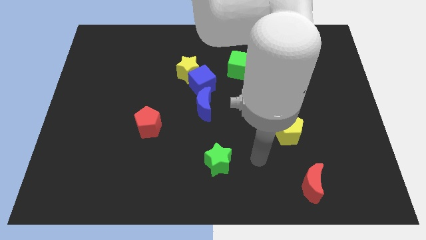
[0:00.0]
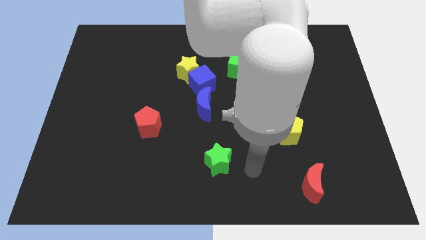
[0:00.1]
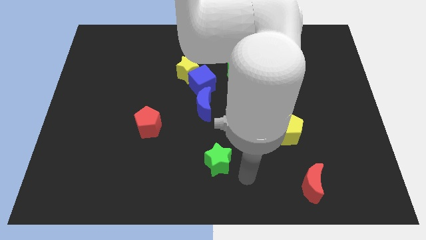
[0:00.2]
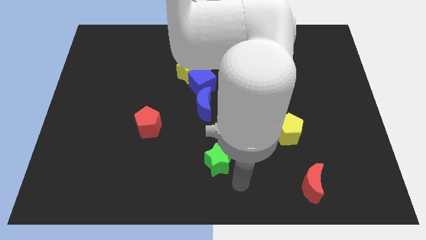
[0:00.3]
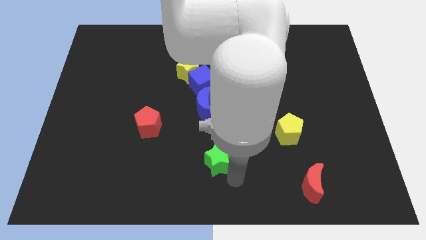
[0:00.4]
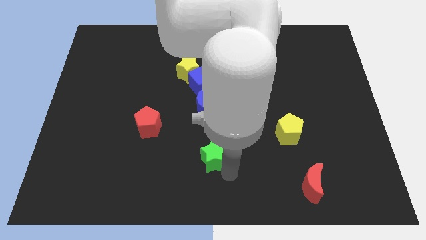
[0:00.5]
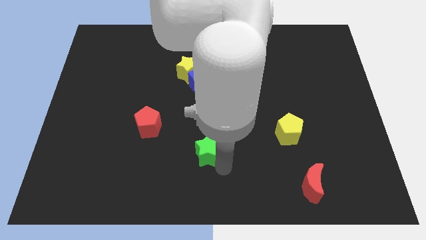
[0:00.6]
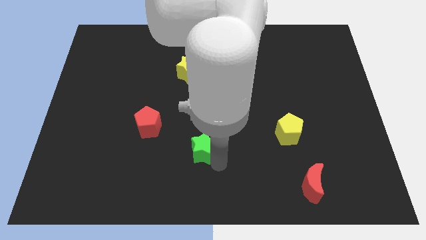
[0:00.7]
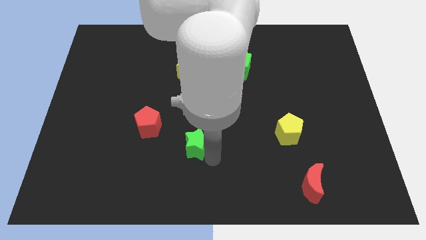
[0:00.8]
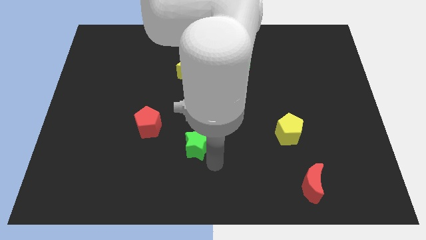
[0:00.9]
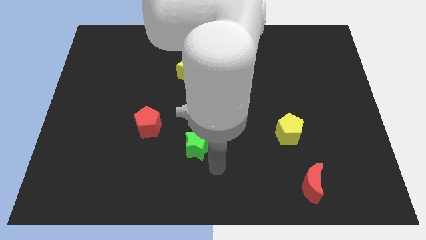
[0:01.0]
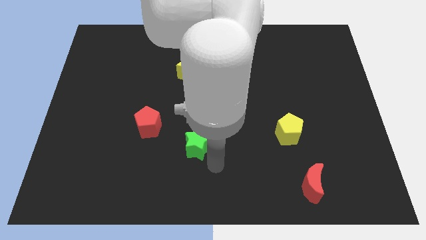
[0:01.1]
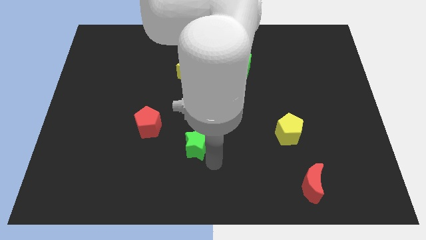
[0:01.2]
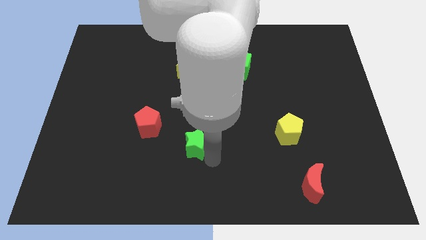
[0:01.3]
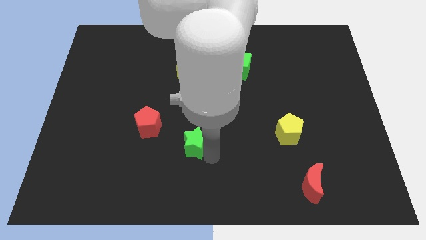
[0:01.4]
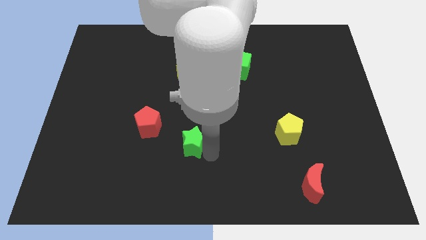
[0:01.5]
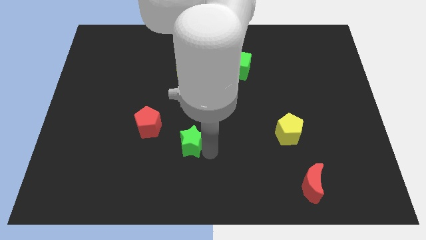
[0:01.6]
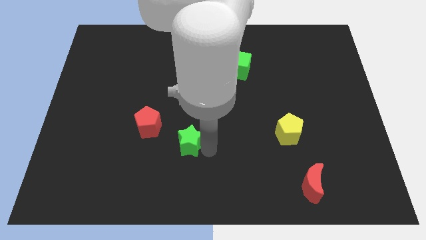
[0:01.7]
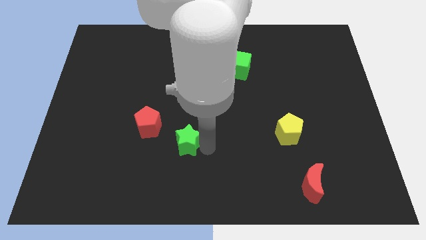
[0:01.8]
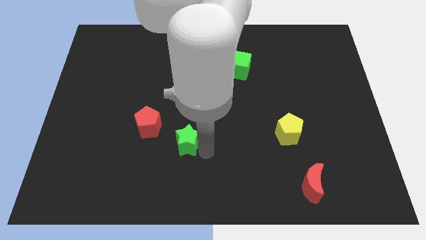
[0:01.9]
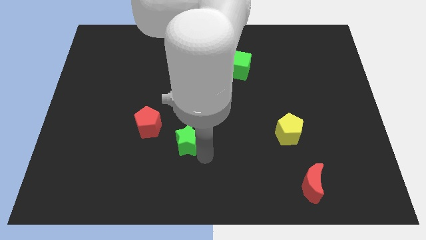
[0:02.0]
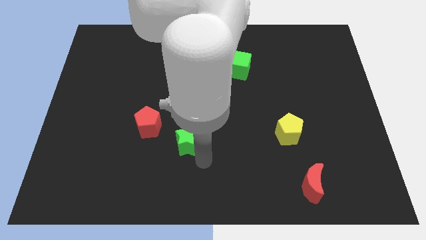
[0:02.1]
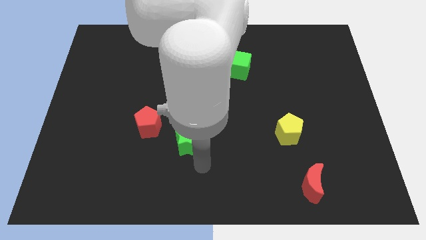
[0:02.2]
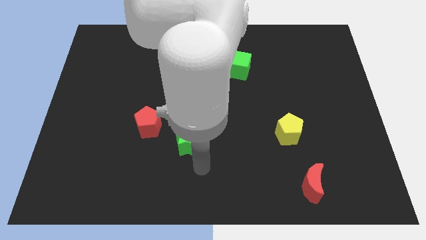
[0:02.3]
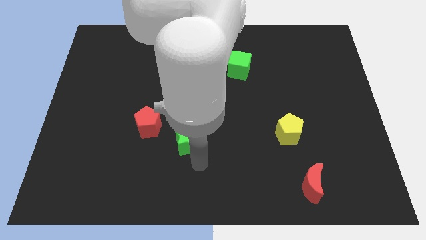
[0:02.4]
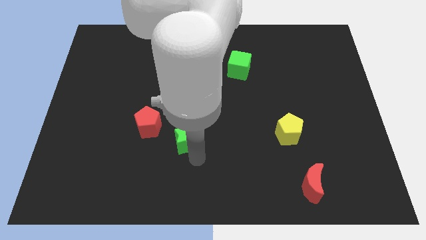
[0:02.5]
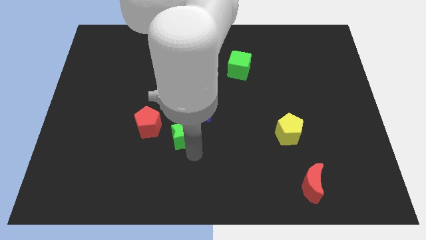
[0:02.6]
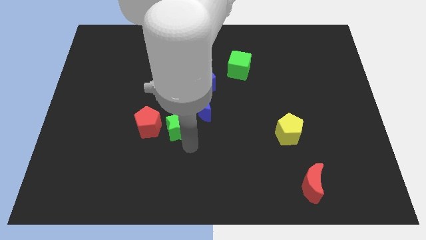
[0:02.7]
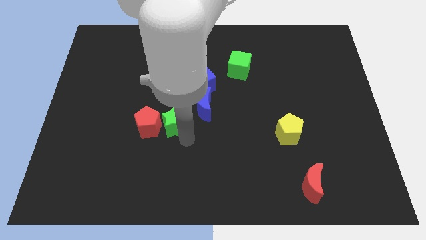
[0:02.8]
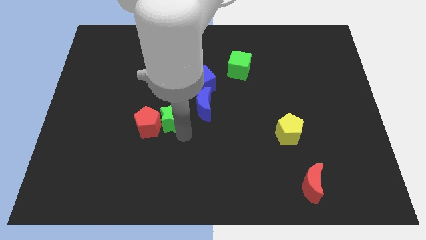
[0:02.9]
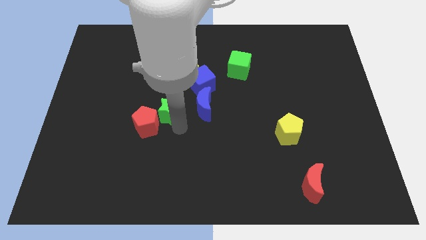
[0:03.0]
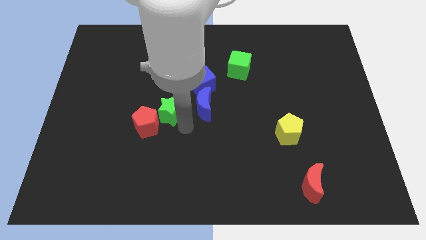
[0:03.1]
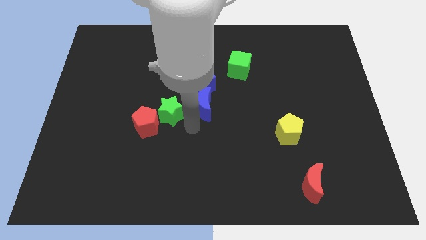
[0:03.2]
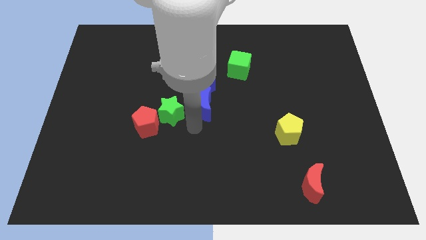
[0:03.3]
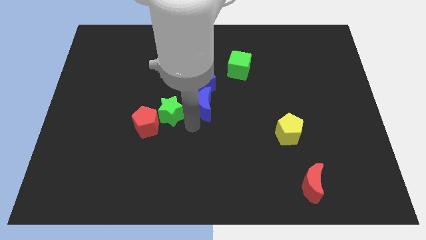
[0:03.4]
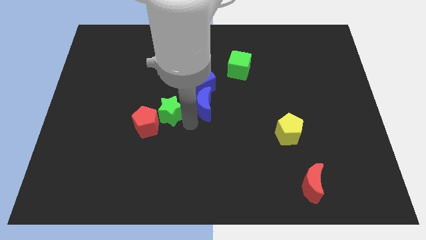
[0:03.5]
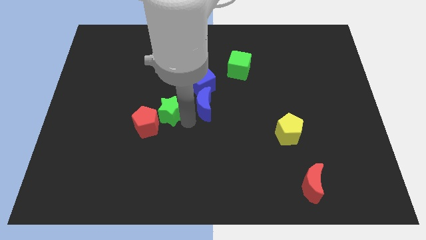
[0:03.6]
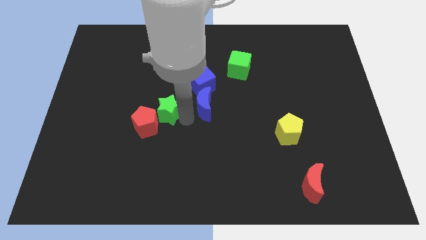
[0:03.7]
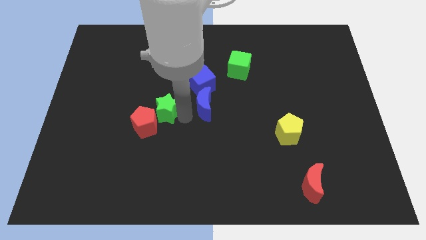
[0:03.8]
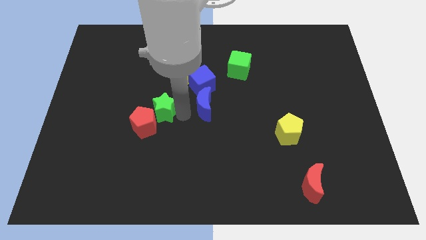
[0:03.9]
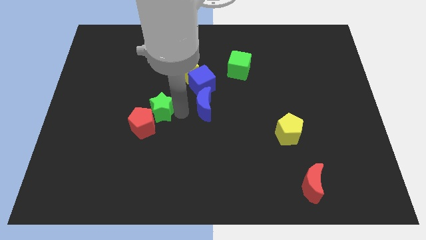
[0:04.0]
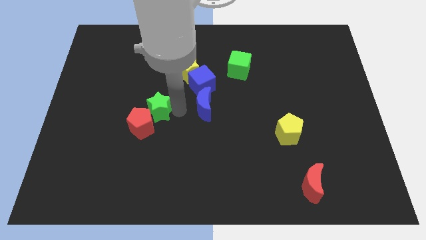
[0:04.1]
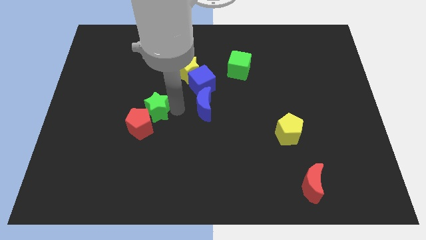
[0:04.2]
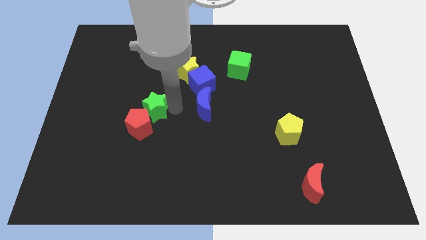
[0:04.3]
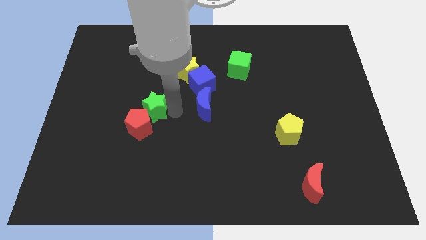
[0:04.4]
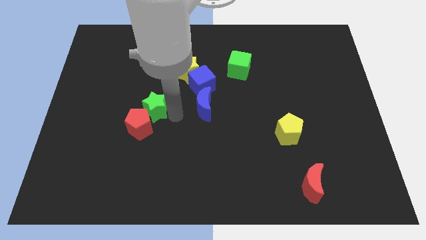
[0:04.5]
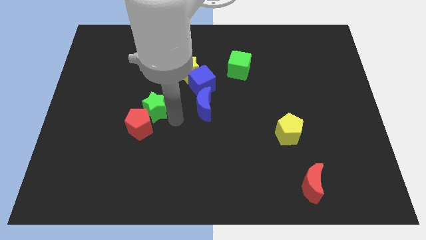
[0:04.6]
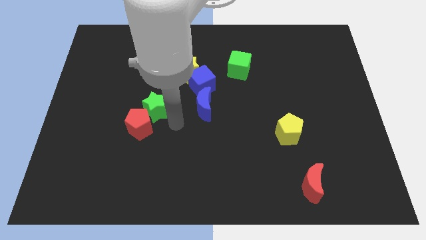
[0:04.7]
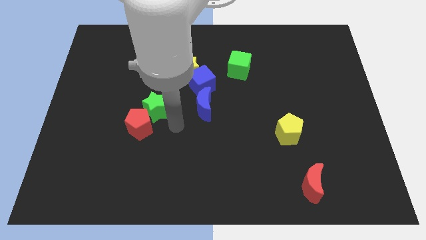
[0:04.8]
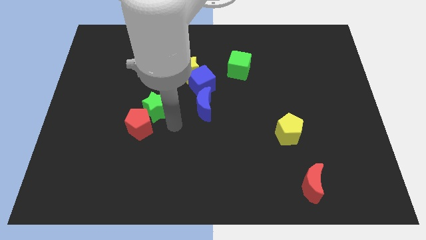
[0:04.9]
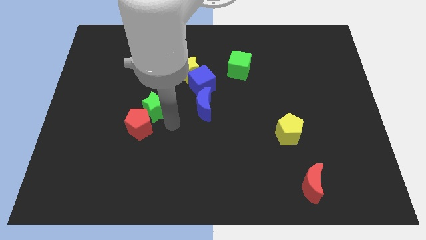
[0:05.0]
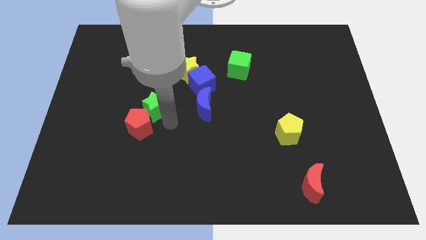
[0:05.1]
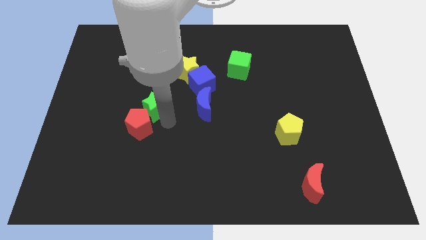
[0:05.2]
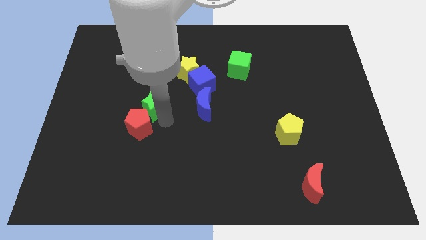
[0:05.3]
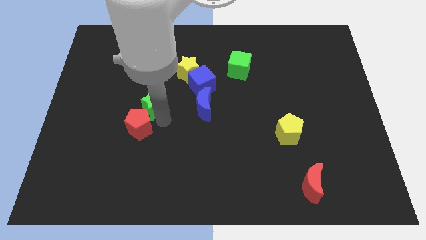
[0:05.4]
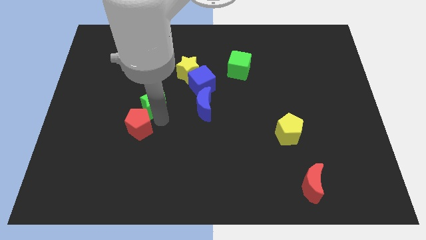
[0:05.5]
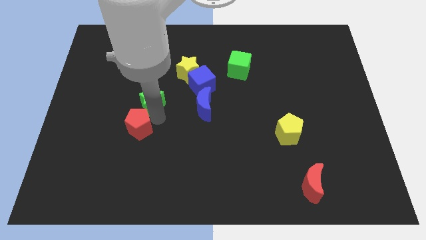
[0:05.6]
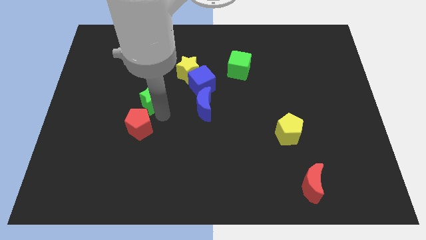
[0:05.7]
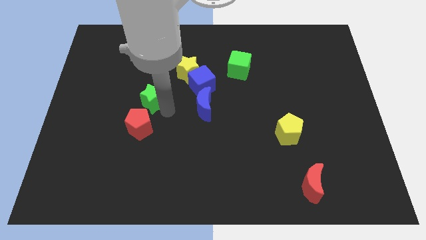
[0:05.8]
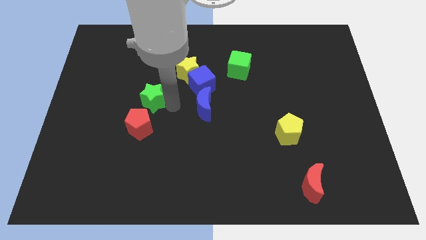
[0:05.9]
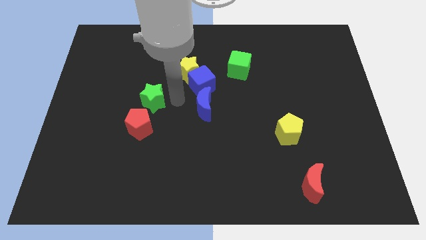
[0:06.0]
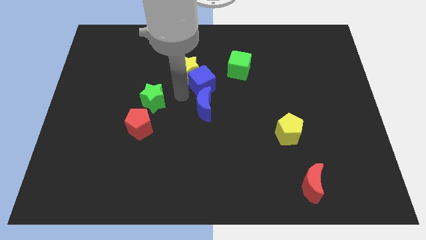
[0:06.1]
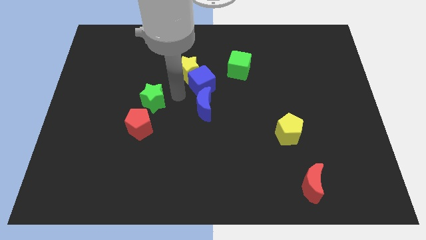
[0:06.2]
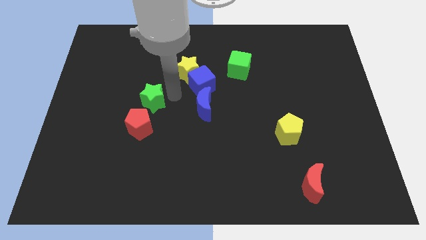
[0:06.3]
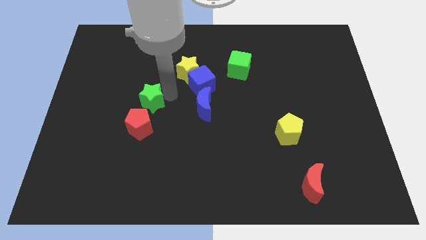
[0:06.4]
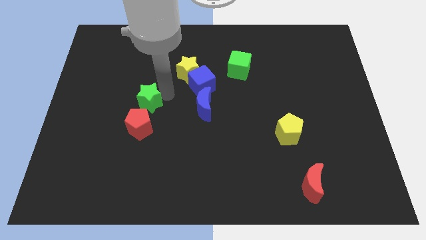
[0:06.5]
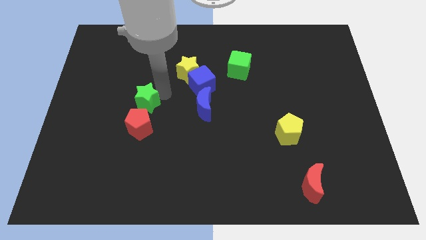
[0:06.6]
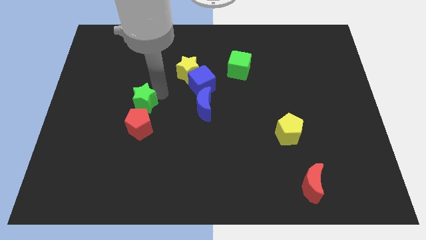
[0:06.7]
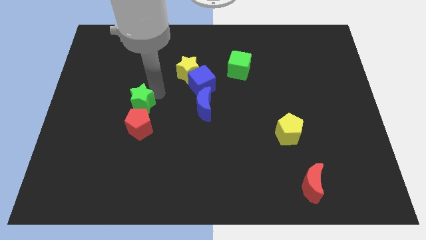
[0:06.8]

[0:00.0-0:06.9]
put the green star to the top left of the red pentagon
